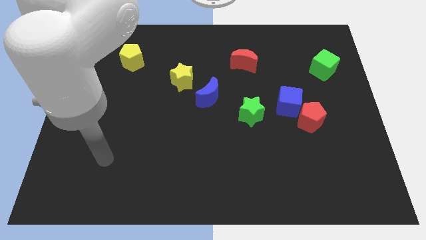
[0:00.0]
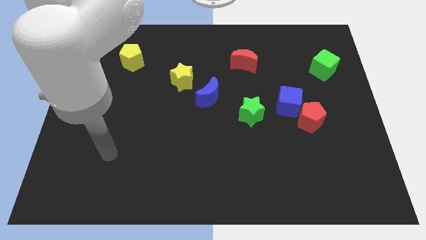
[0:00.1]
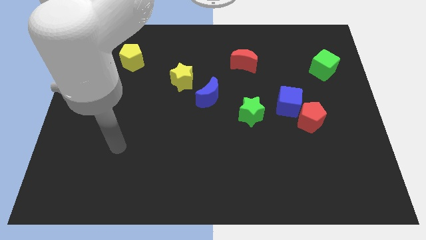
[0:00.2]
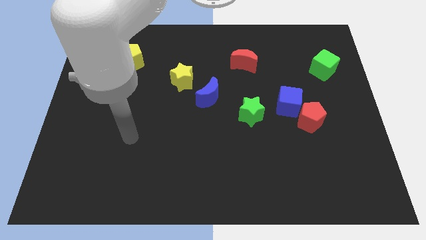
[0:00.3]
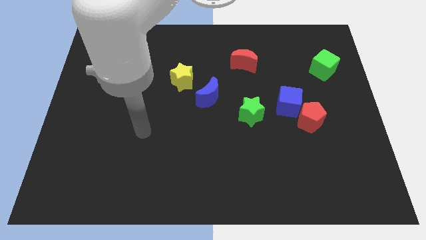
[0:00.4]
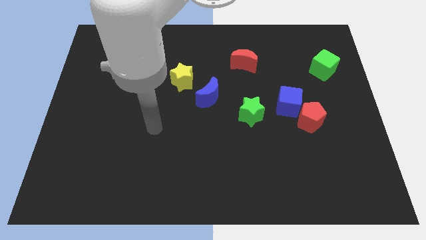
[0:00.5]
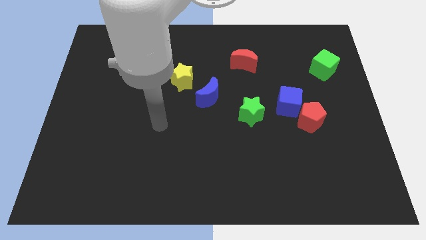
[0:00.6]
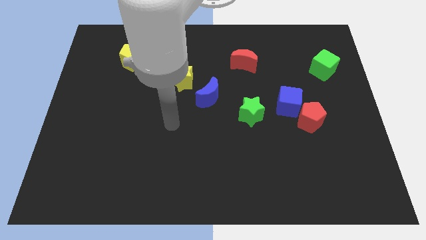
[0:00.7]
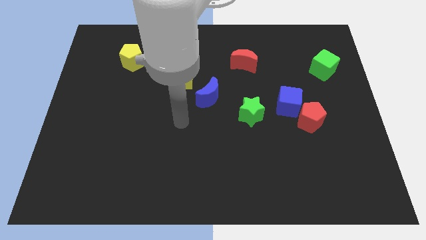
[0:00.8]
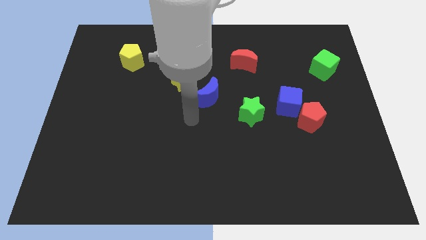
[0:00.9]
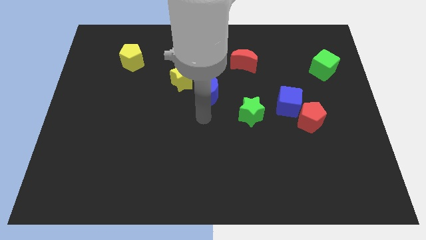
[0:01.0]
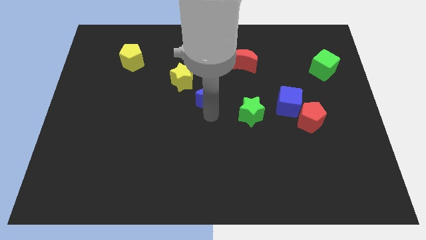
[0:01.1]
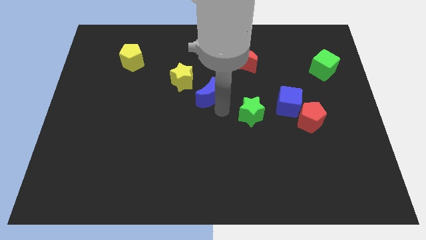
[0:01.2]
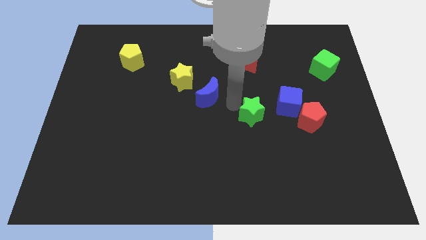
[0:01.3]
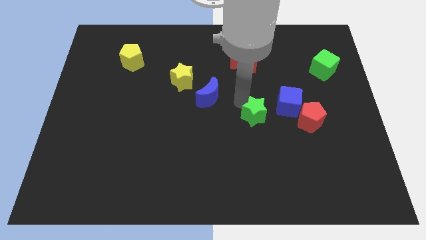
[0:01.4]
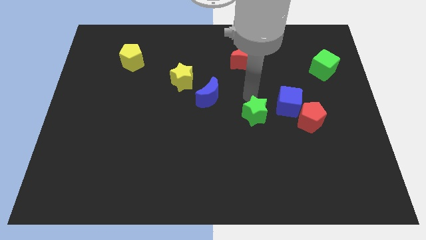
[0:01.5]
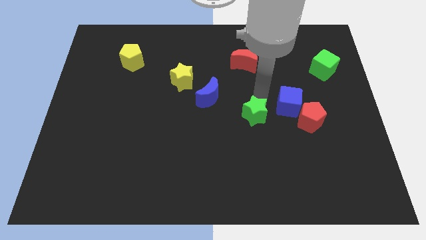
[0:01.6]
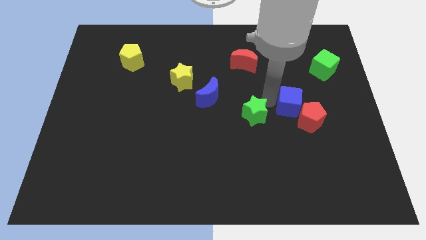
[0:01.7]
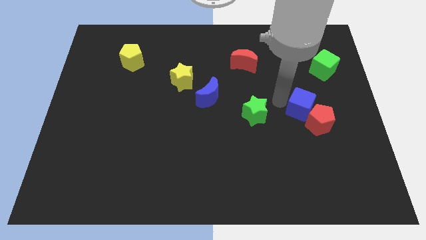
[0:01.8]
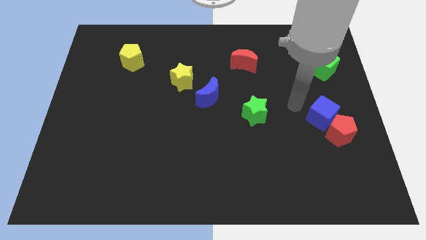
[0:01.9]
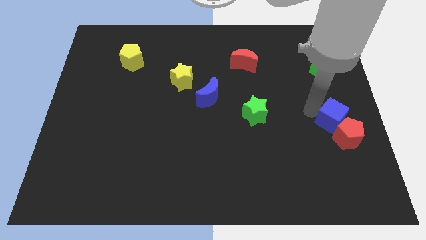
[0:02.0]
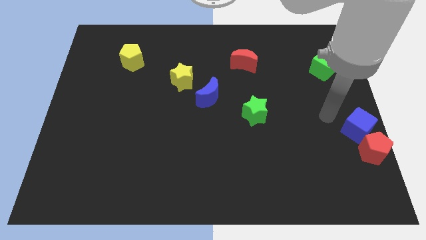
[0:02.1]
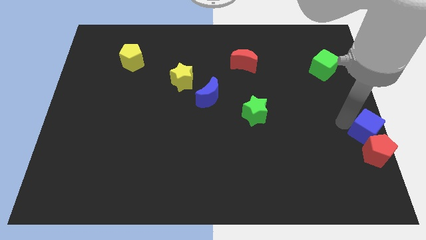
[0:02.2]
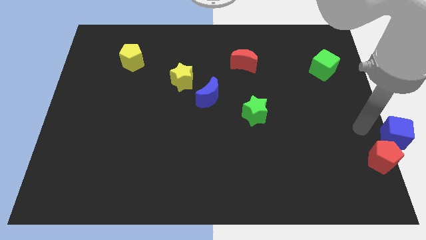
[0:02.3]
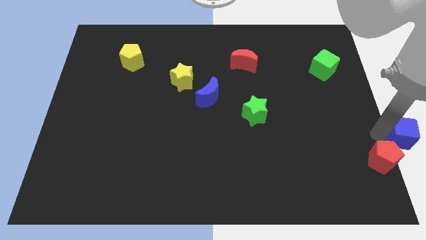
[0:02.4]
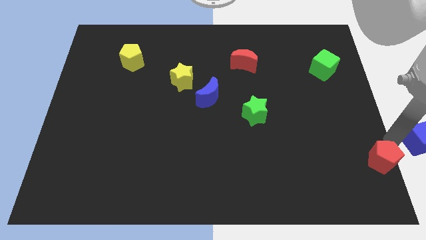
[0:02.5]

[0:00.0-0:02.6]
pull the red pentagon apart from the blue cube

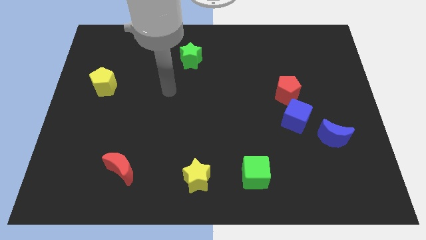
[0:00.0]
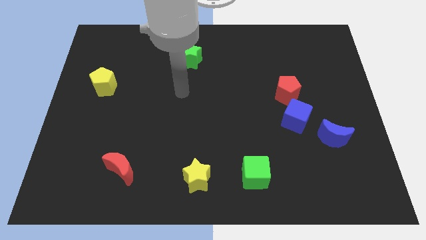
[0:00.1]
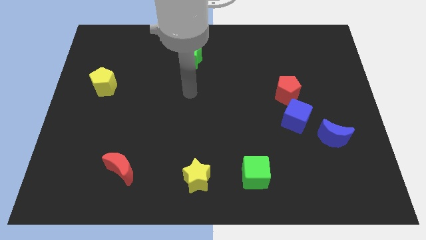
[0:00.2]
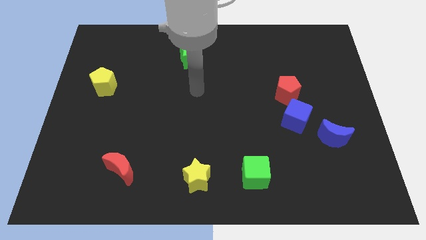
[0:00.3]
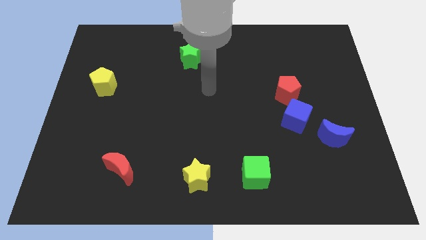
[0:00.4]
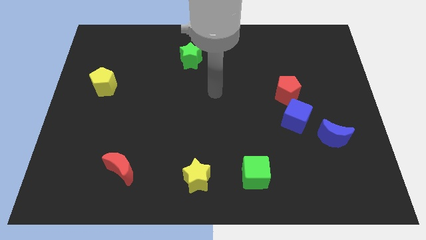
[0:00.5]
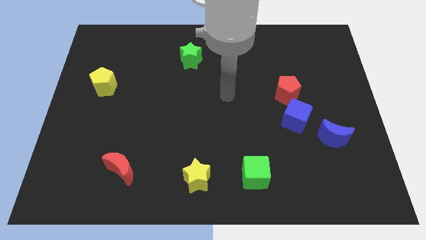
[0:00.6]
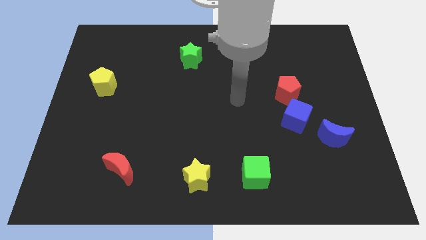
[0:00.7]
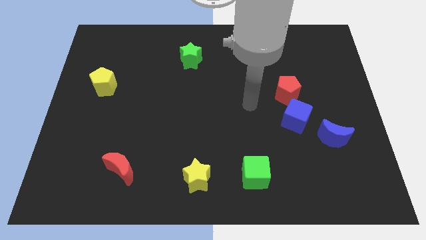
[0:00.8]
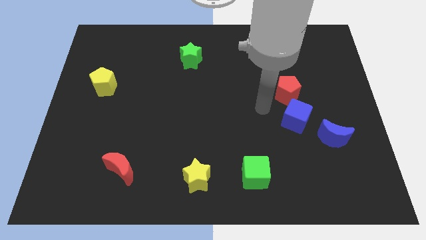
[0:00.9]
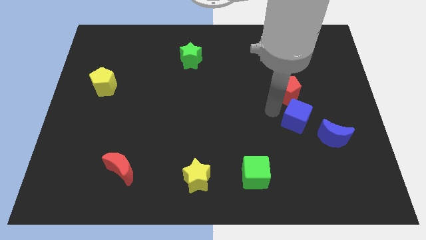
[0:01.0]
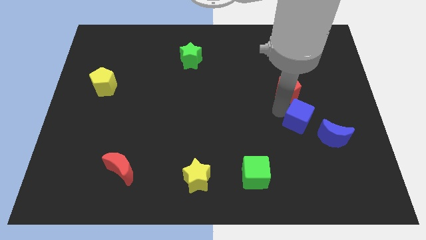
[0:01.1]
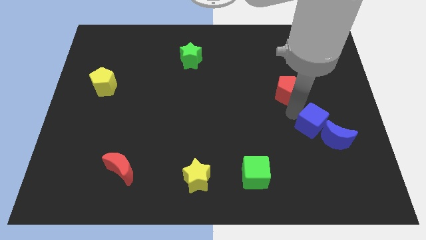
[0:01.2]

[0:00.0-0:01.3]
move the red pentagon away from the blue cube

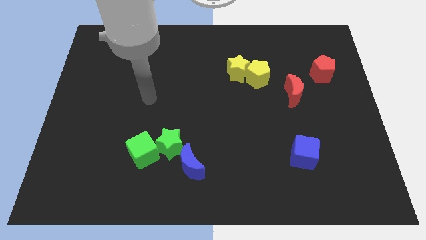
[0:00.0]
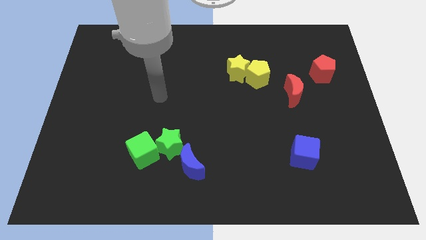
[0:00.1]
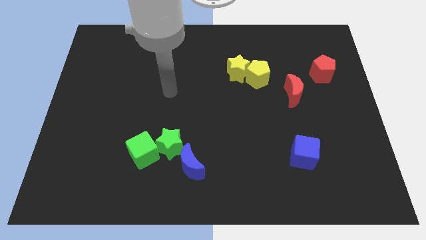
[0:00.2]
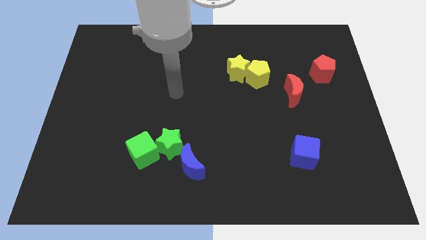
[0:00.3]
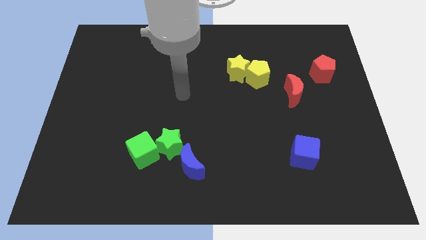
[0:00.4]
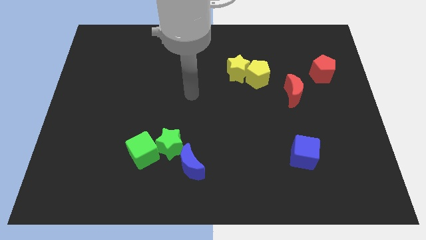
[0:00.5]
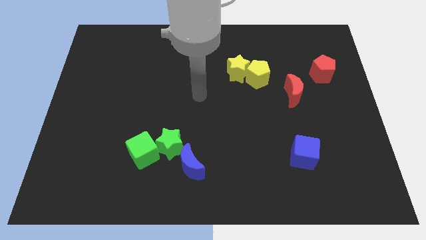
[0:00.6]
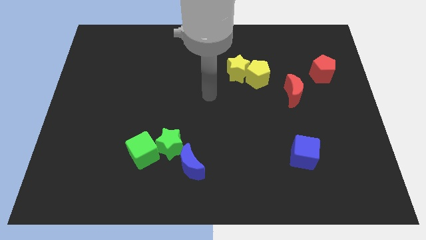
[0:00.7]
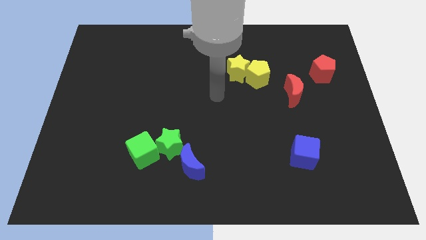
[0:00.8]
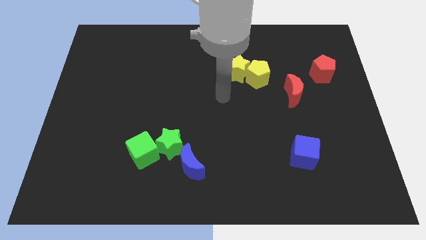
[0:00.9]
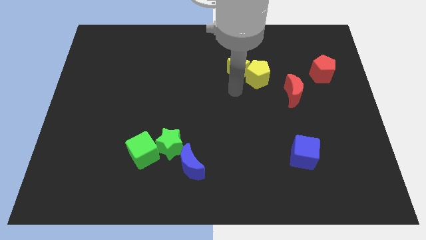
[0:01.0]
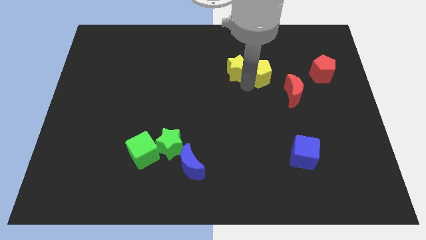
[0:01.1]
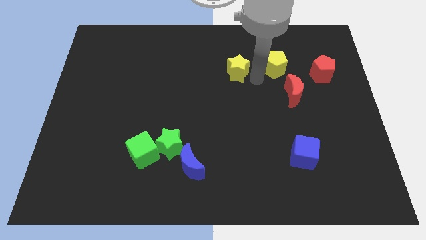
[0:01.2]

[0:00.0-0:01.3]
move the yellow star away from the yellow pentagon

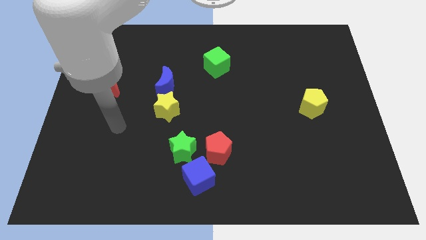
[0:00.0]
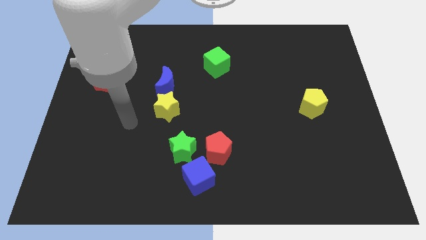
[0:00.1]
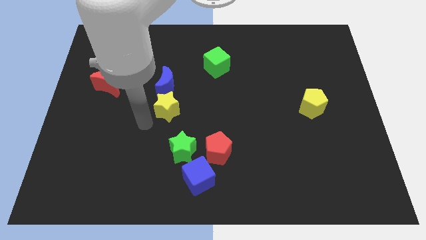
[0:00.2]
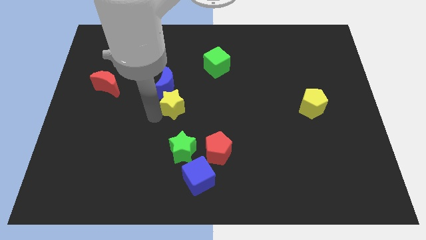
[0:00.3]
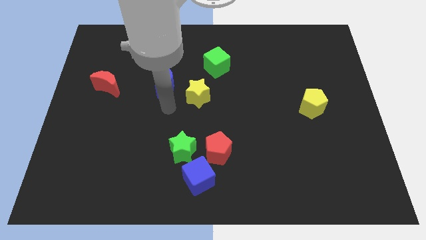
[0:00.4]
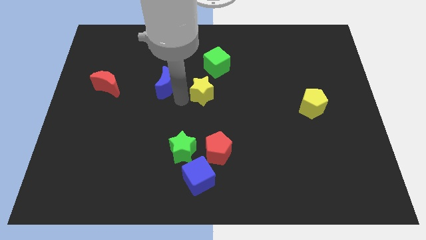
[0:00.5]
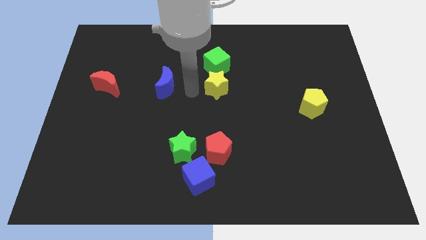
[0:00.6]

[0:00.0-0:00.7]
separate the blue moon from the yellow star

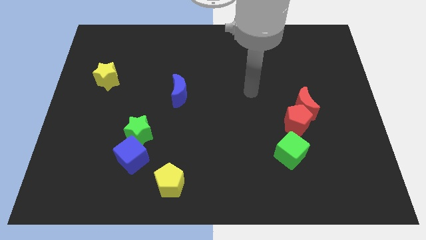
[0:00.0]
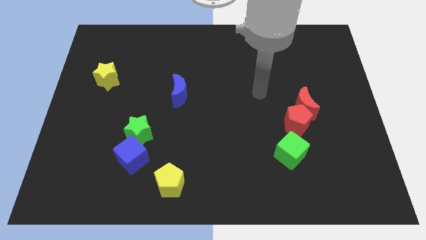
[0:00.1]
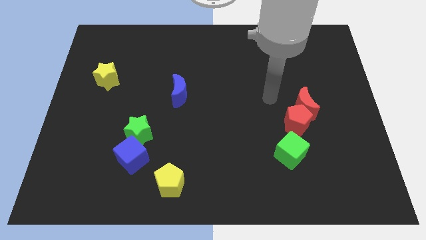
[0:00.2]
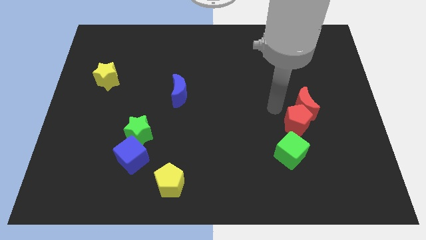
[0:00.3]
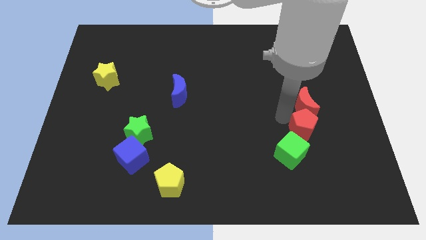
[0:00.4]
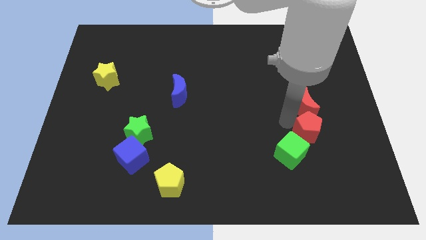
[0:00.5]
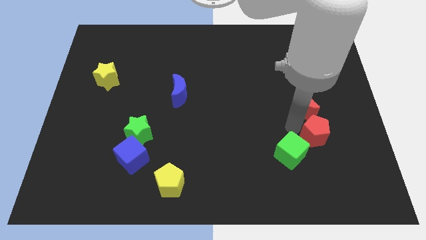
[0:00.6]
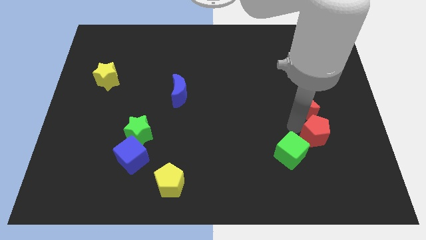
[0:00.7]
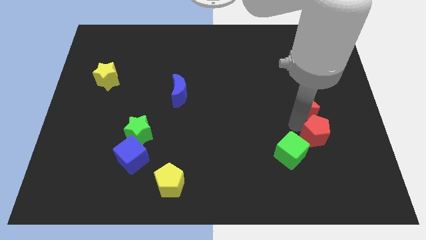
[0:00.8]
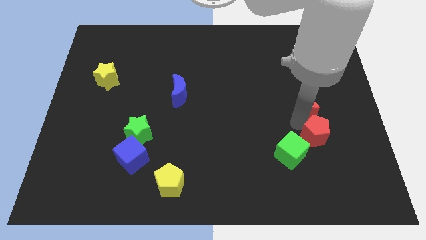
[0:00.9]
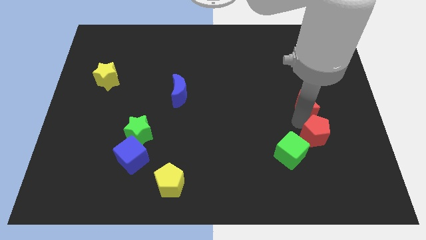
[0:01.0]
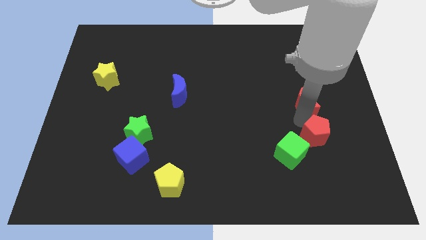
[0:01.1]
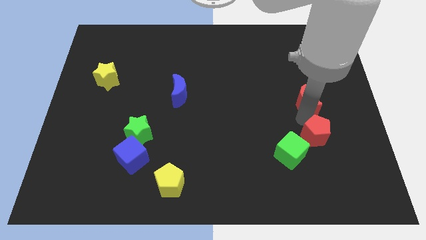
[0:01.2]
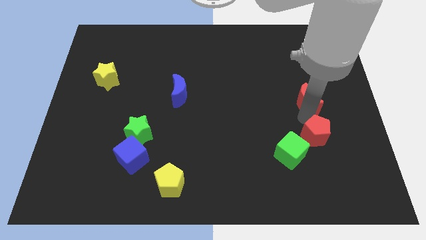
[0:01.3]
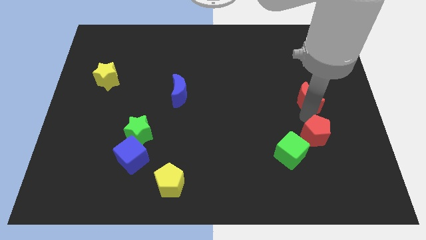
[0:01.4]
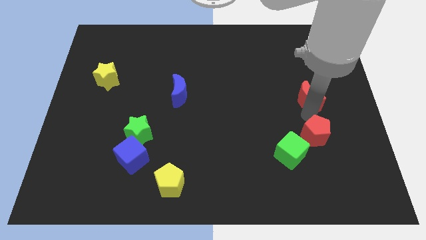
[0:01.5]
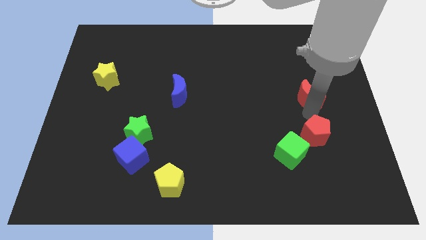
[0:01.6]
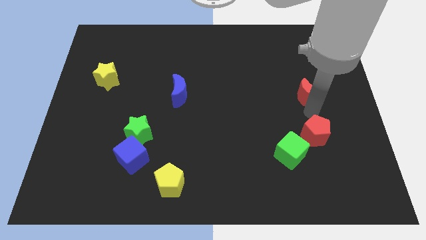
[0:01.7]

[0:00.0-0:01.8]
move the red moon away from the red pentagon

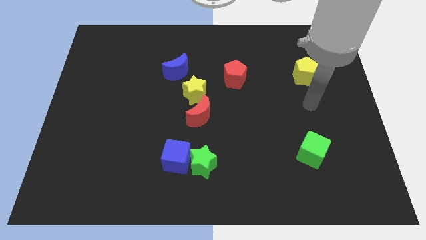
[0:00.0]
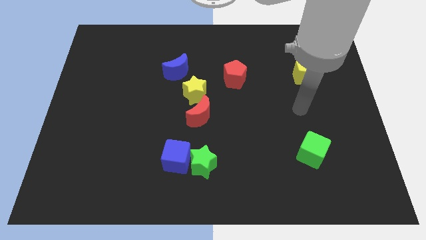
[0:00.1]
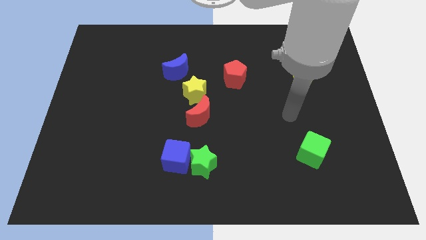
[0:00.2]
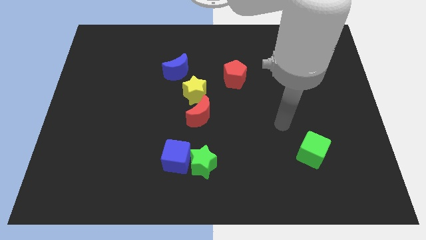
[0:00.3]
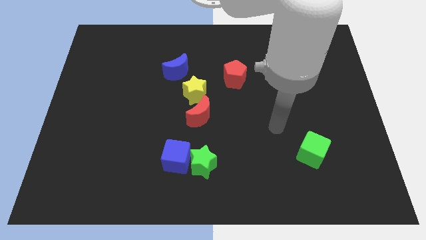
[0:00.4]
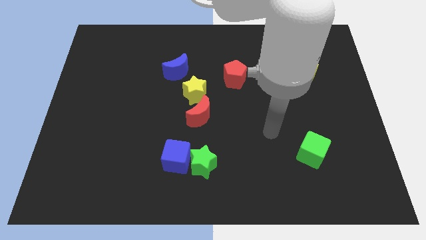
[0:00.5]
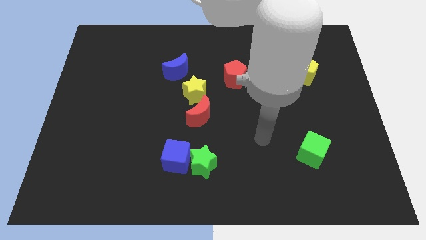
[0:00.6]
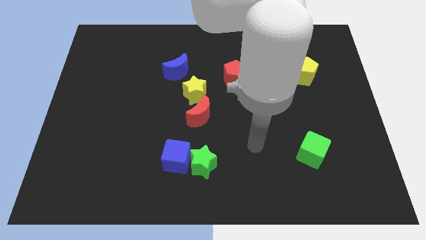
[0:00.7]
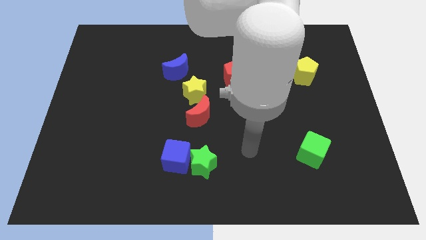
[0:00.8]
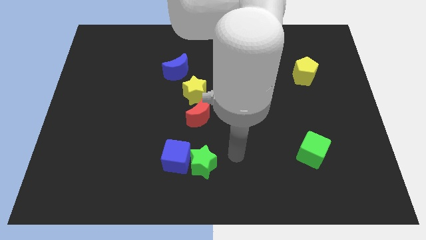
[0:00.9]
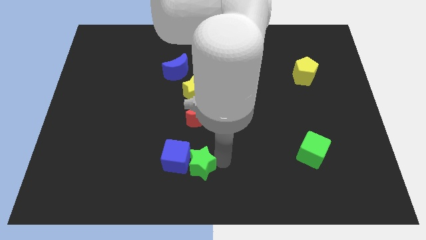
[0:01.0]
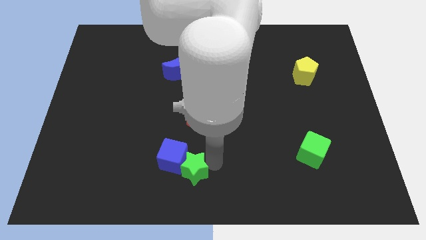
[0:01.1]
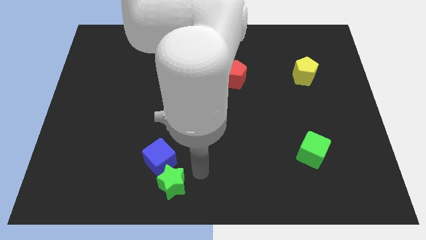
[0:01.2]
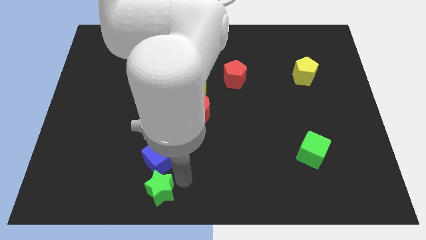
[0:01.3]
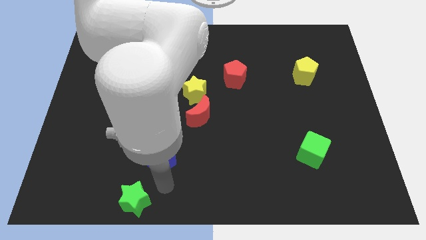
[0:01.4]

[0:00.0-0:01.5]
separate the blue cube from the green star
